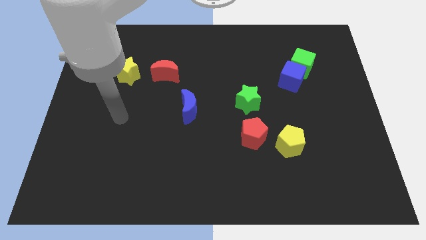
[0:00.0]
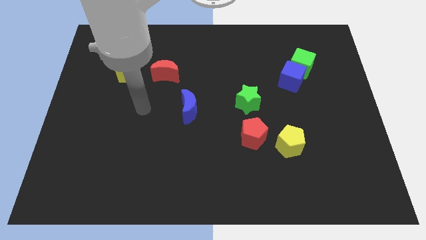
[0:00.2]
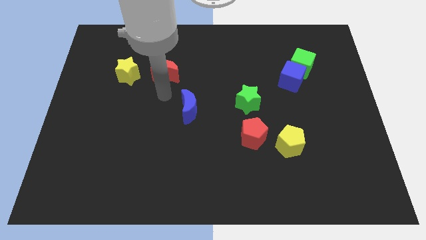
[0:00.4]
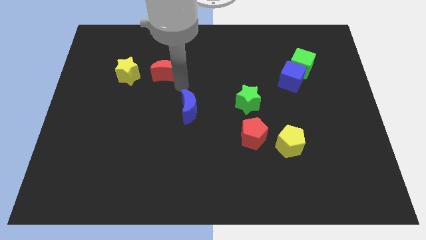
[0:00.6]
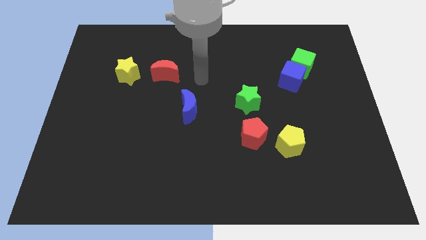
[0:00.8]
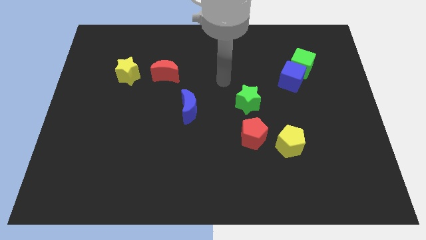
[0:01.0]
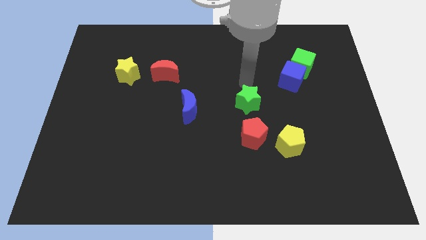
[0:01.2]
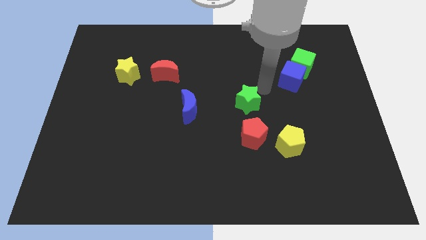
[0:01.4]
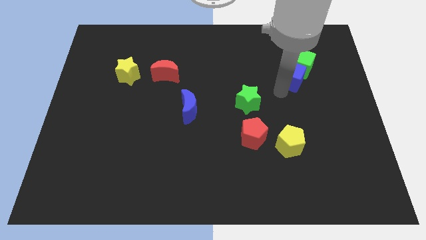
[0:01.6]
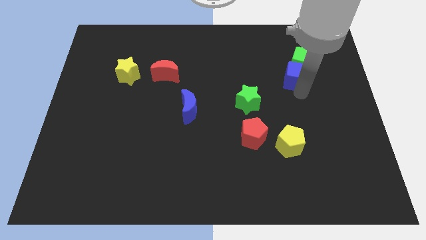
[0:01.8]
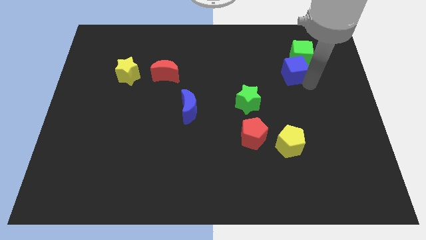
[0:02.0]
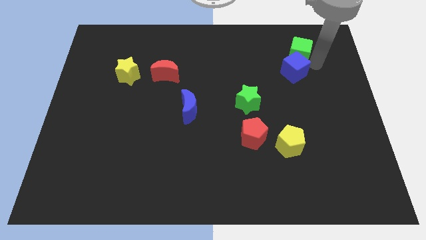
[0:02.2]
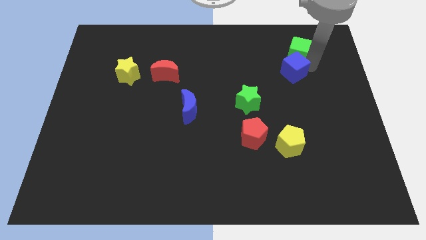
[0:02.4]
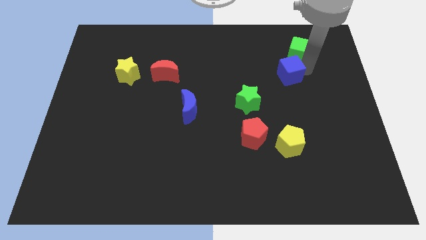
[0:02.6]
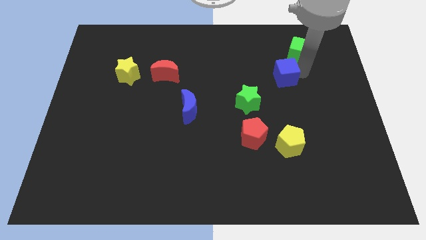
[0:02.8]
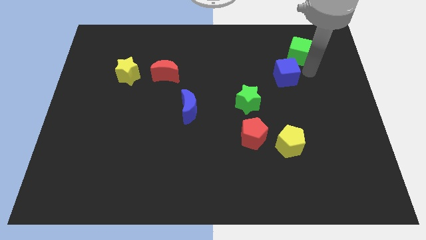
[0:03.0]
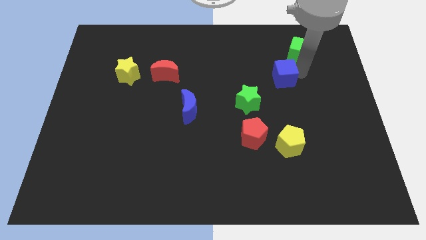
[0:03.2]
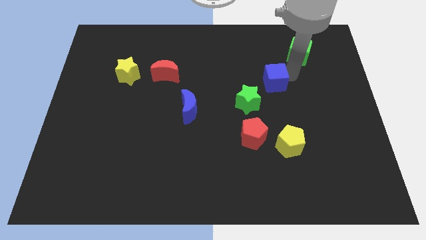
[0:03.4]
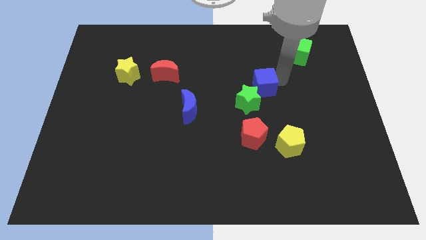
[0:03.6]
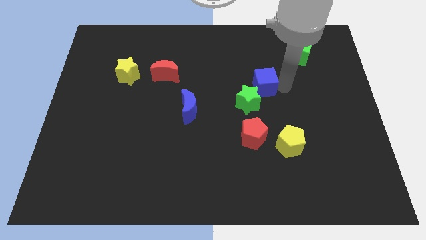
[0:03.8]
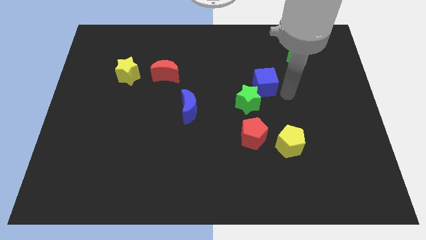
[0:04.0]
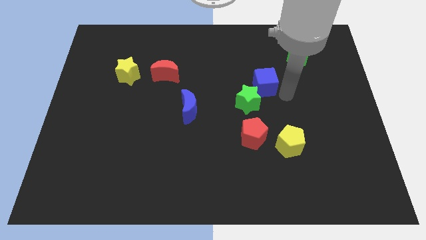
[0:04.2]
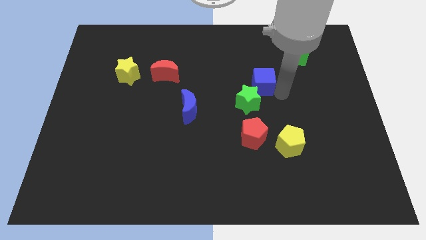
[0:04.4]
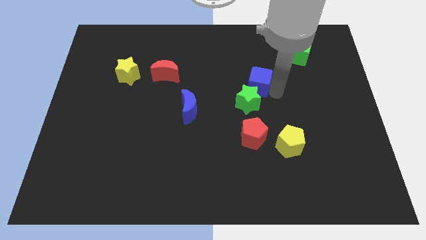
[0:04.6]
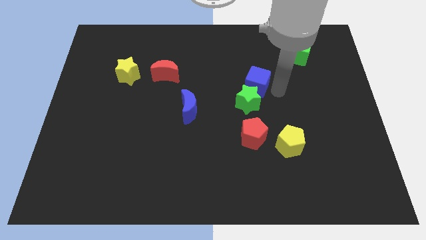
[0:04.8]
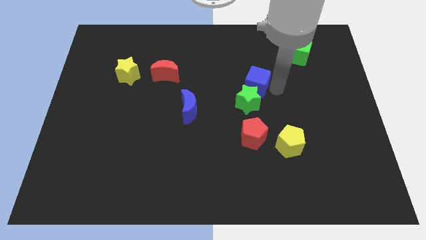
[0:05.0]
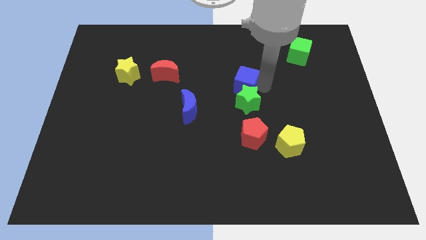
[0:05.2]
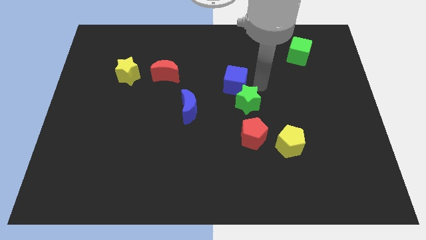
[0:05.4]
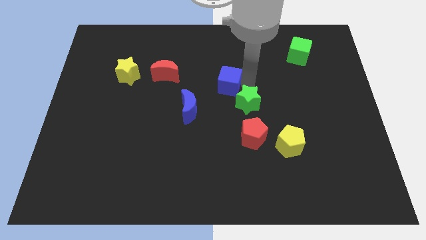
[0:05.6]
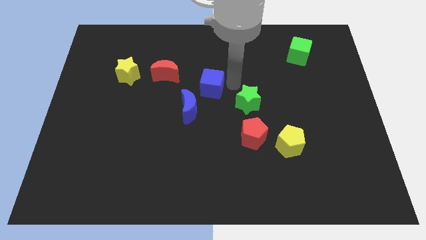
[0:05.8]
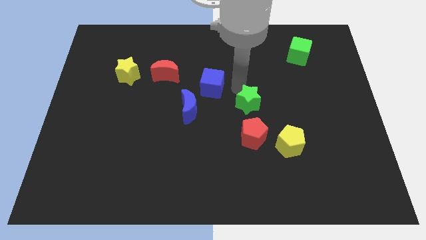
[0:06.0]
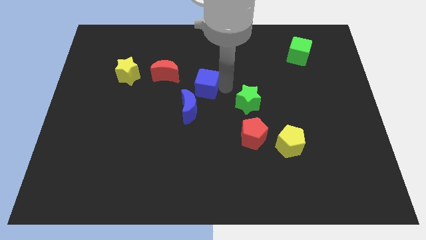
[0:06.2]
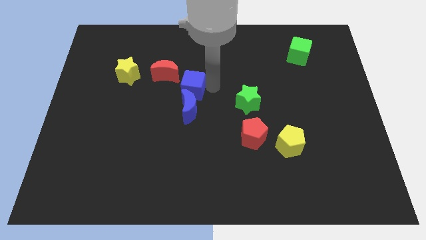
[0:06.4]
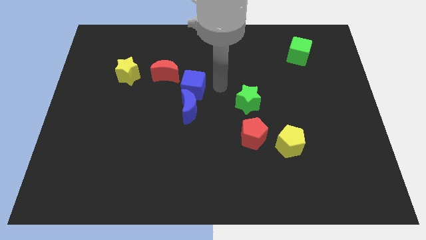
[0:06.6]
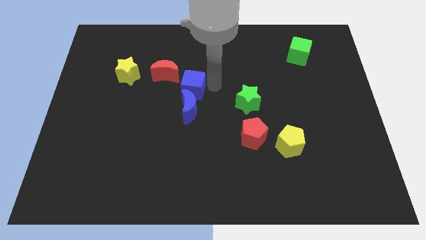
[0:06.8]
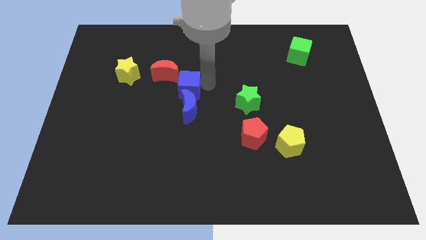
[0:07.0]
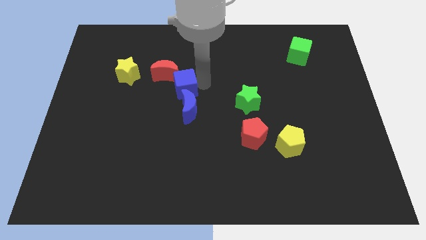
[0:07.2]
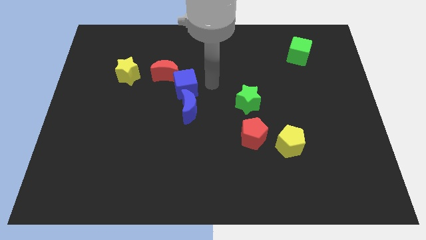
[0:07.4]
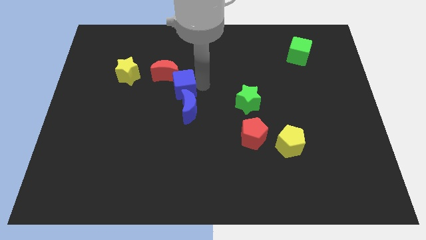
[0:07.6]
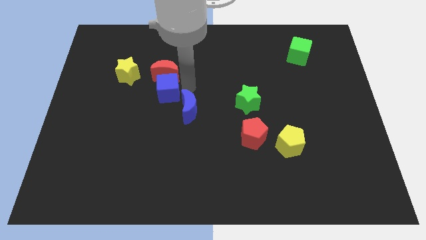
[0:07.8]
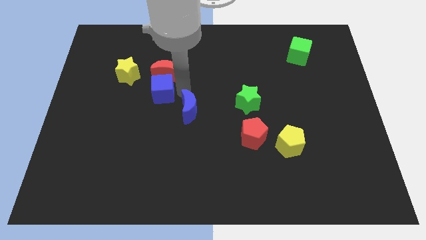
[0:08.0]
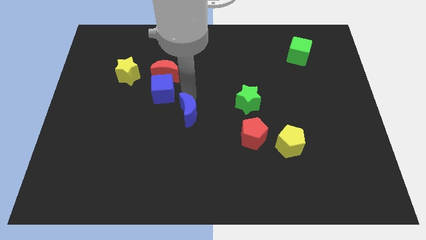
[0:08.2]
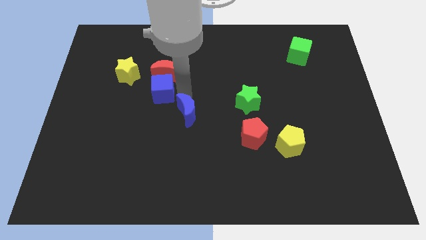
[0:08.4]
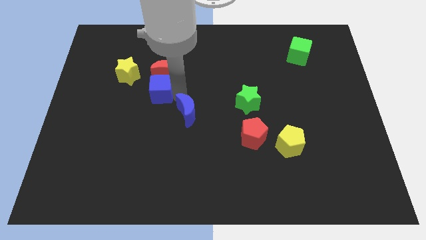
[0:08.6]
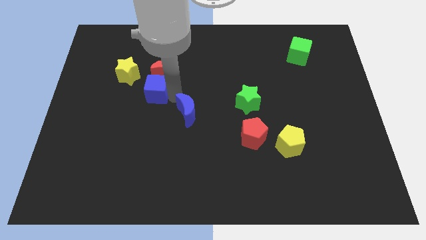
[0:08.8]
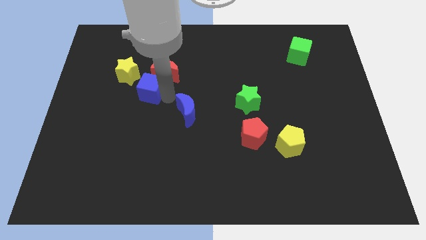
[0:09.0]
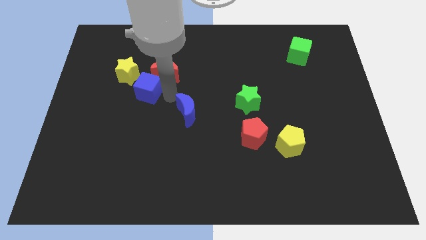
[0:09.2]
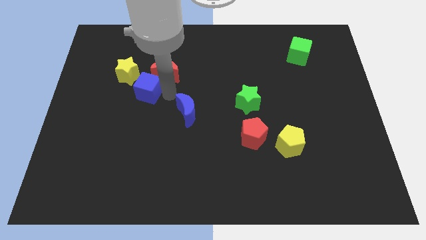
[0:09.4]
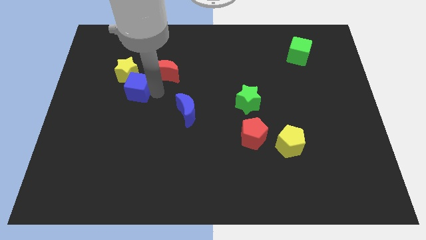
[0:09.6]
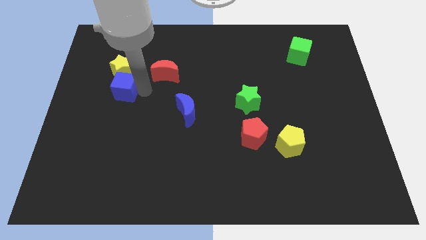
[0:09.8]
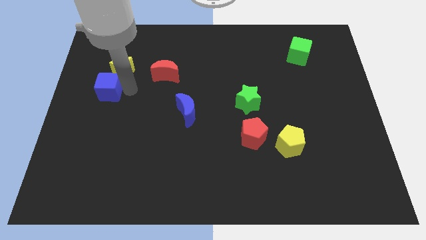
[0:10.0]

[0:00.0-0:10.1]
put the blue cube to the left side
